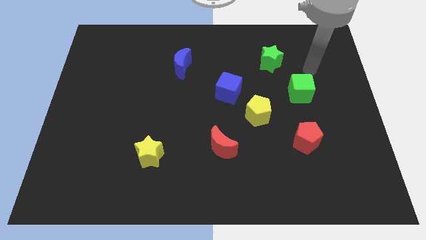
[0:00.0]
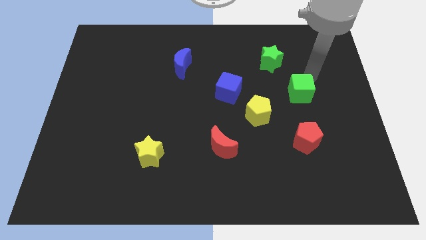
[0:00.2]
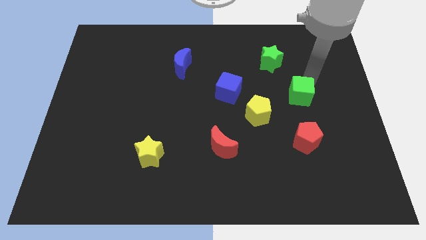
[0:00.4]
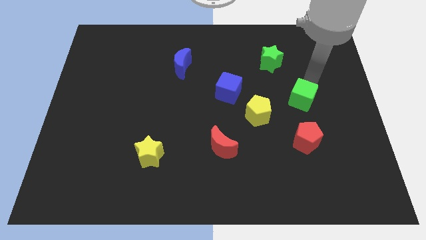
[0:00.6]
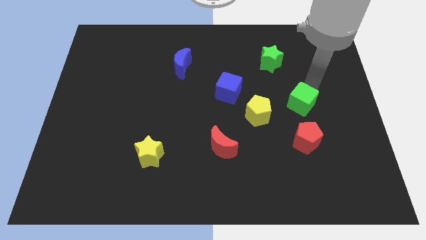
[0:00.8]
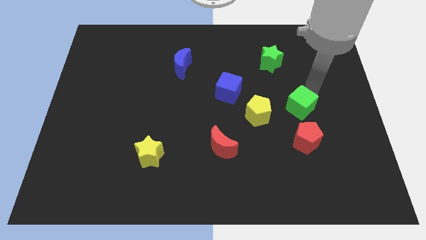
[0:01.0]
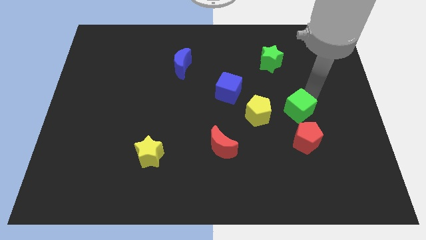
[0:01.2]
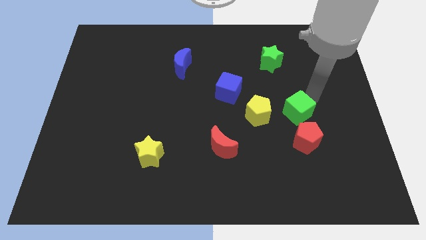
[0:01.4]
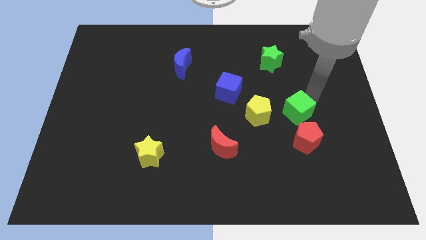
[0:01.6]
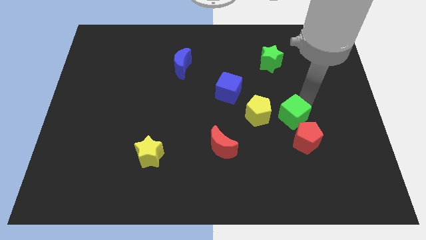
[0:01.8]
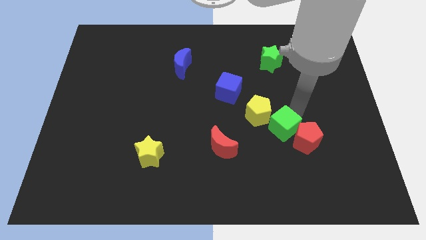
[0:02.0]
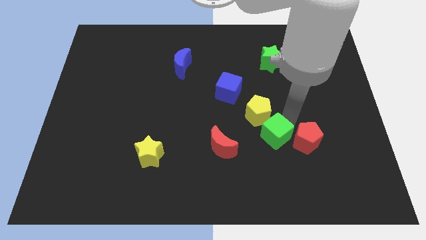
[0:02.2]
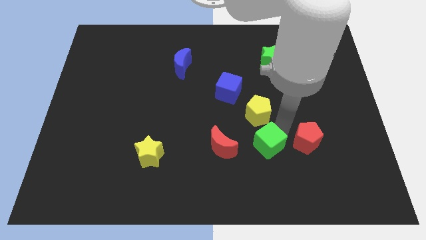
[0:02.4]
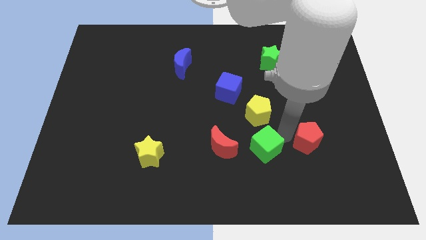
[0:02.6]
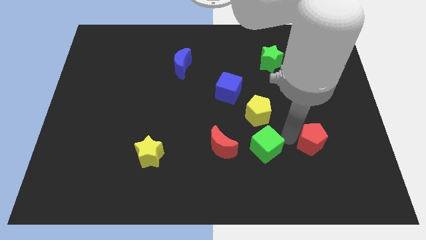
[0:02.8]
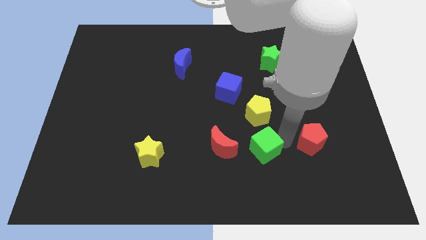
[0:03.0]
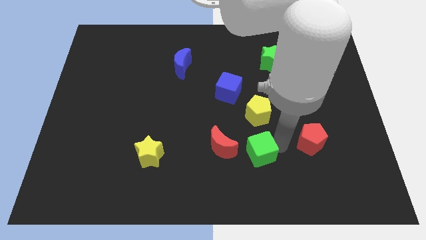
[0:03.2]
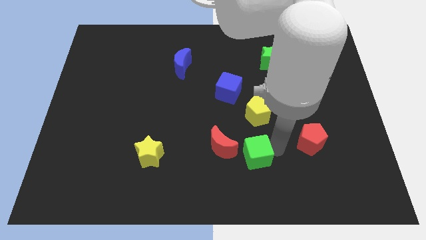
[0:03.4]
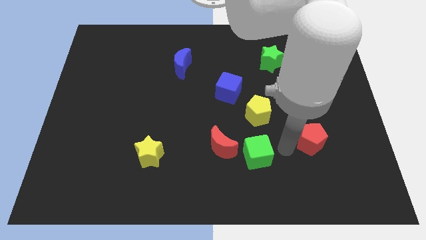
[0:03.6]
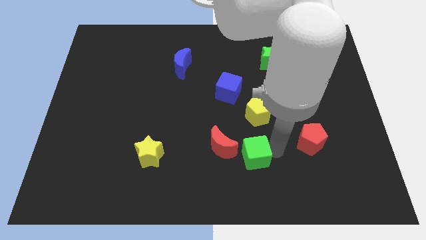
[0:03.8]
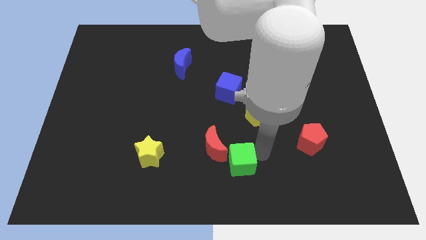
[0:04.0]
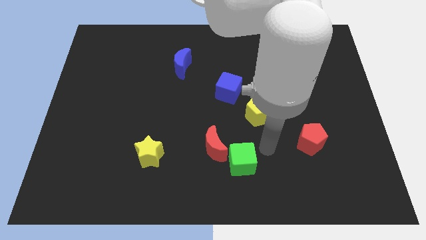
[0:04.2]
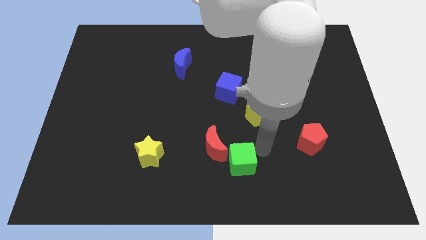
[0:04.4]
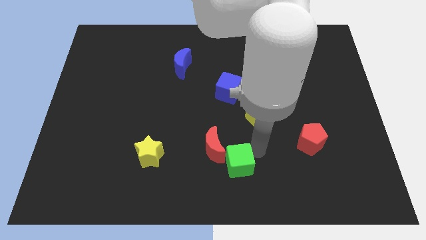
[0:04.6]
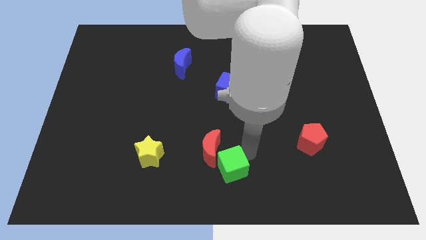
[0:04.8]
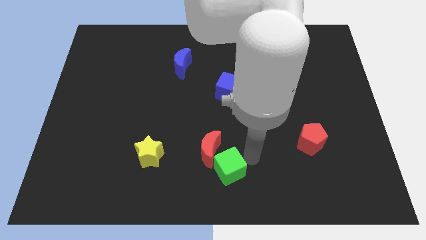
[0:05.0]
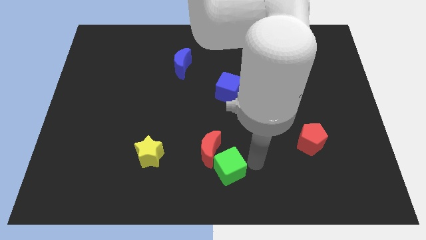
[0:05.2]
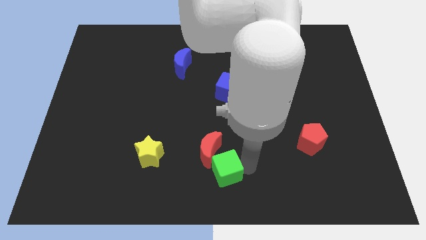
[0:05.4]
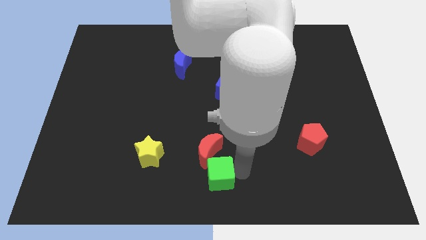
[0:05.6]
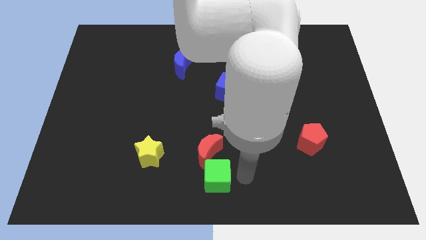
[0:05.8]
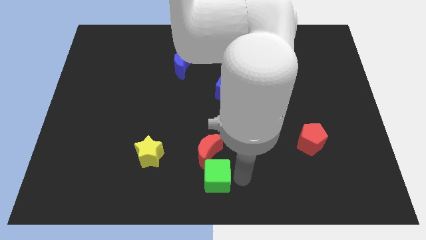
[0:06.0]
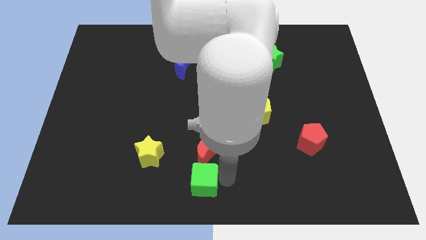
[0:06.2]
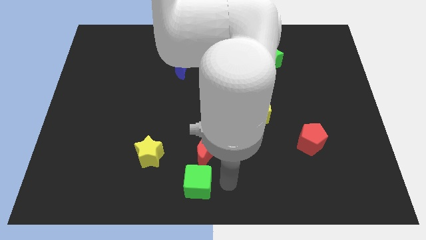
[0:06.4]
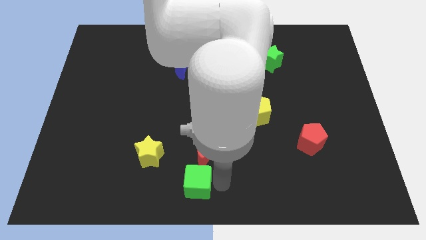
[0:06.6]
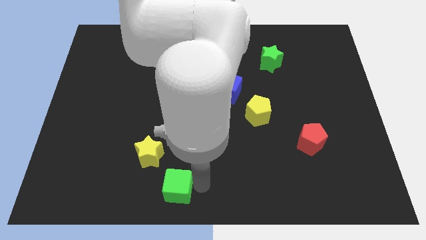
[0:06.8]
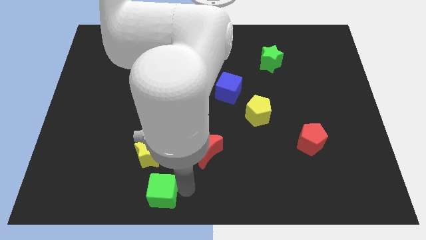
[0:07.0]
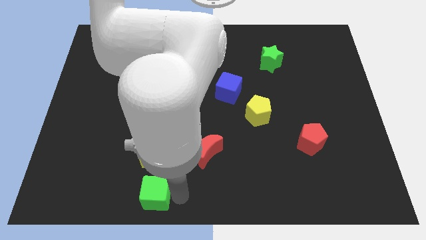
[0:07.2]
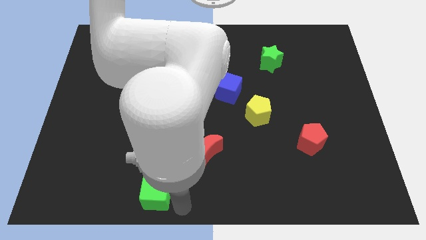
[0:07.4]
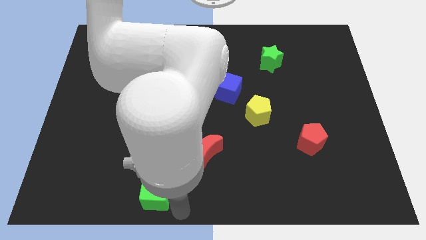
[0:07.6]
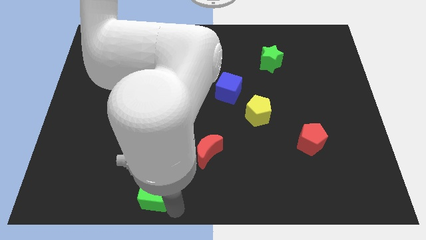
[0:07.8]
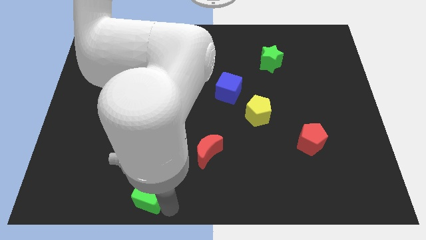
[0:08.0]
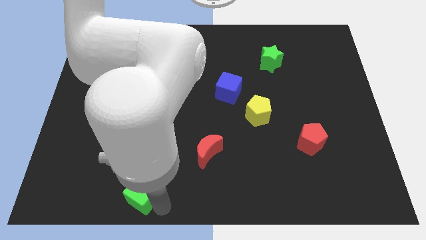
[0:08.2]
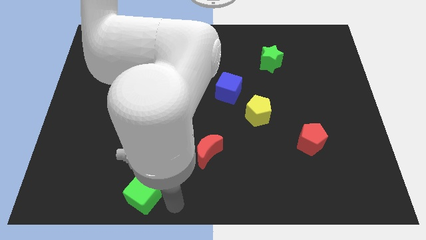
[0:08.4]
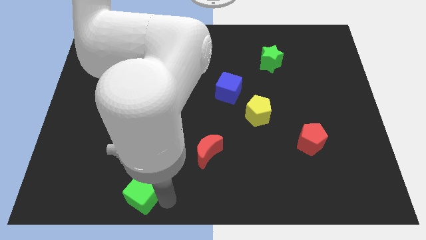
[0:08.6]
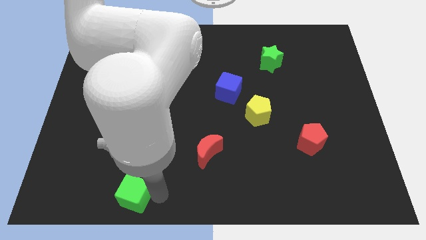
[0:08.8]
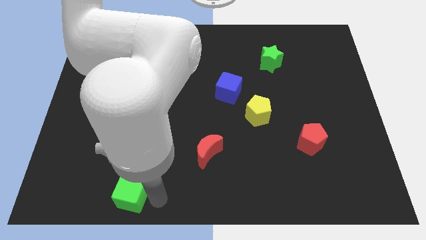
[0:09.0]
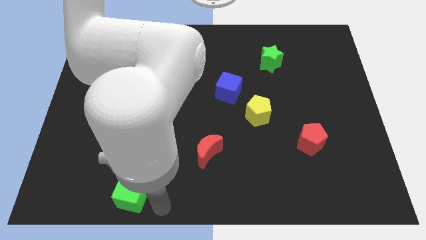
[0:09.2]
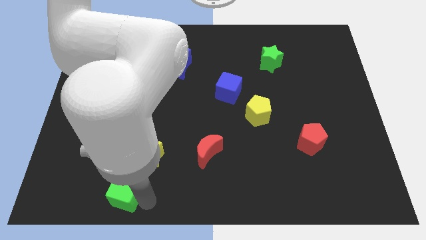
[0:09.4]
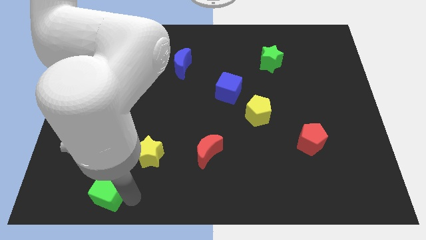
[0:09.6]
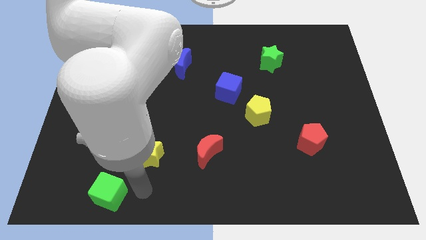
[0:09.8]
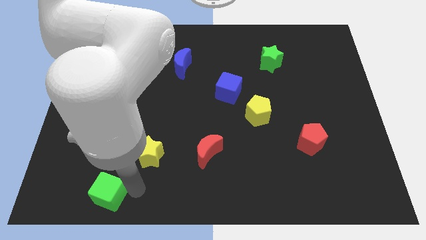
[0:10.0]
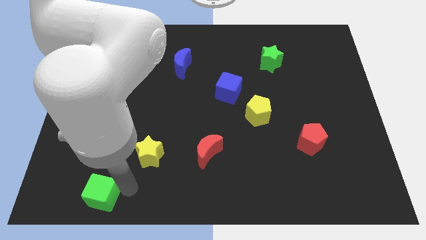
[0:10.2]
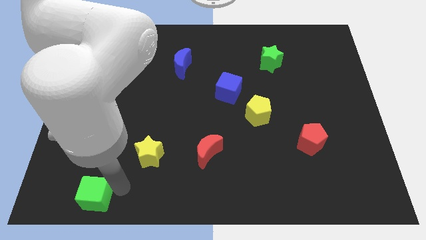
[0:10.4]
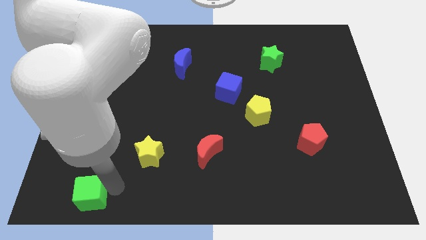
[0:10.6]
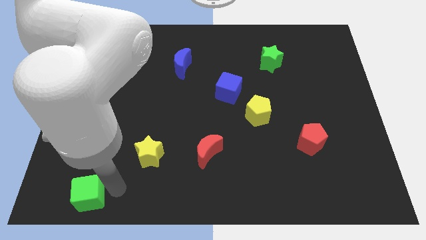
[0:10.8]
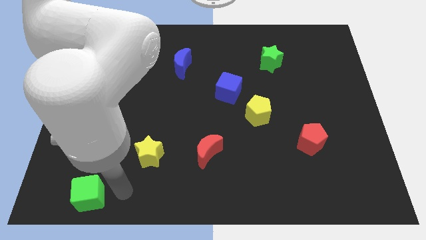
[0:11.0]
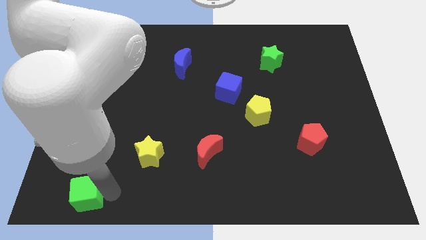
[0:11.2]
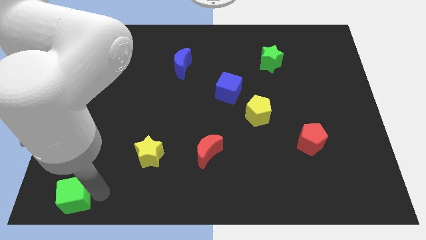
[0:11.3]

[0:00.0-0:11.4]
push the green cube to the bottom left

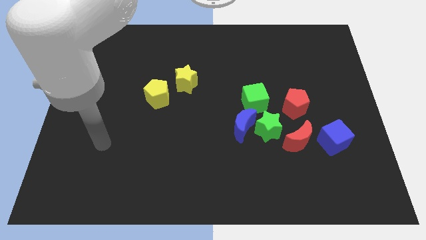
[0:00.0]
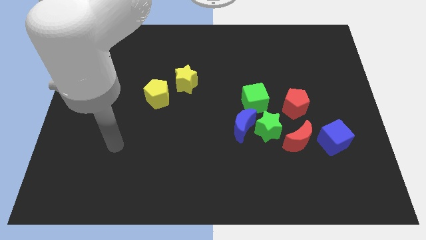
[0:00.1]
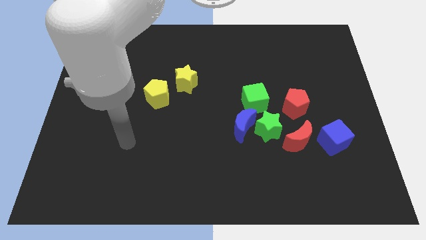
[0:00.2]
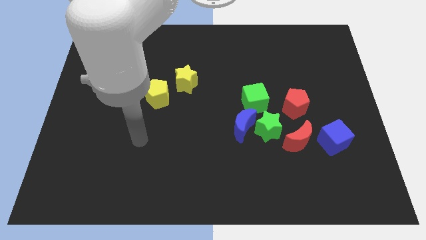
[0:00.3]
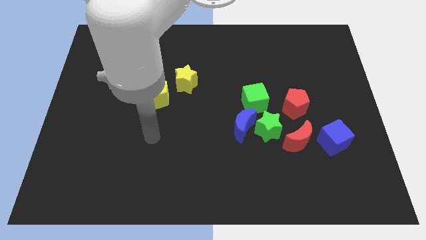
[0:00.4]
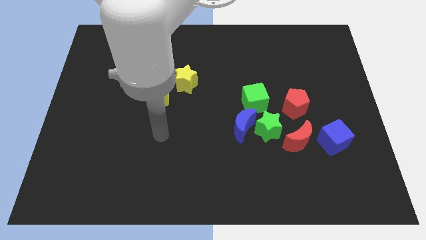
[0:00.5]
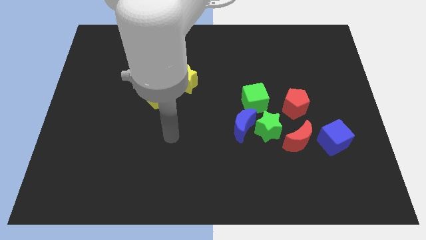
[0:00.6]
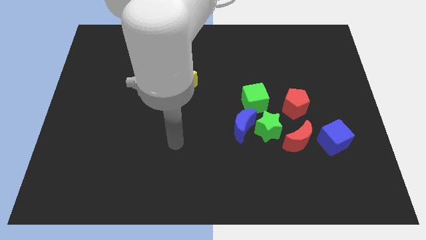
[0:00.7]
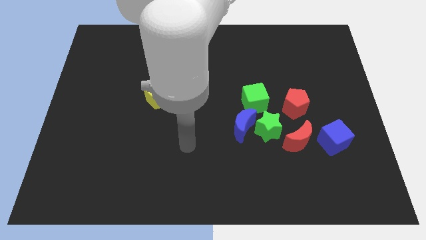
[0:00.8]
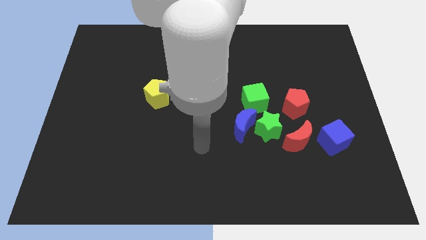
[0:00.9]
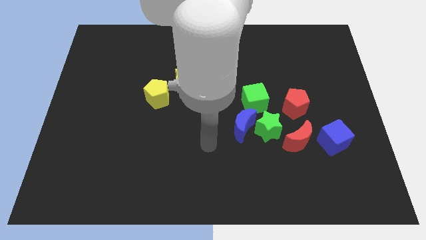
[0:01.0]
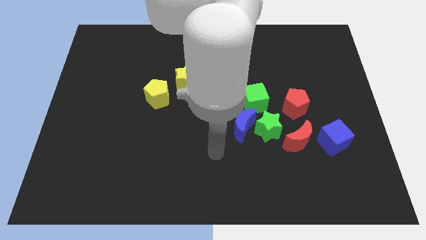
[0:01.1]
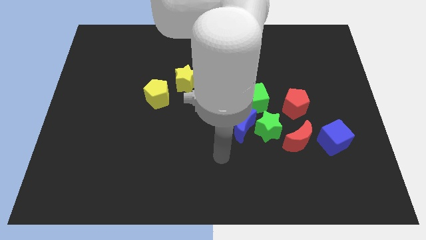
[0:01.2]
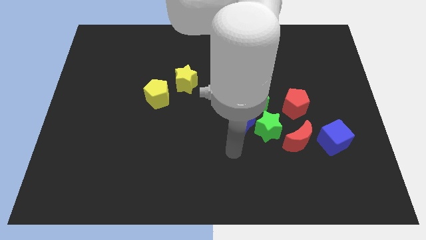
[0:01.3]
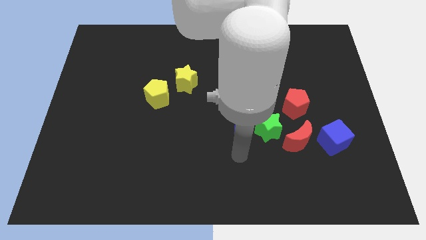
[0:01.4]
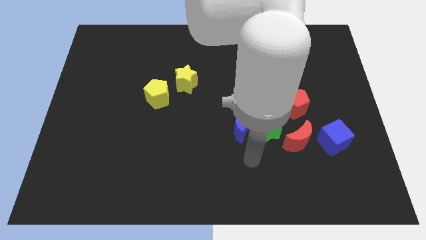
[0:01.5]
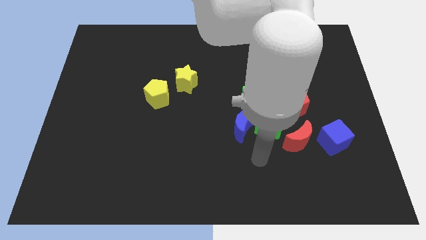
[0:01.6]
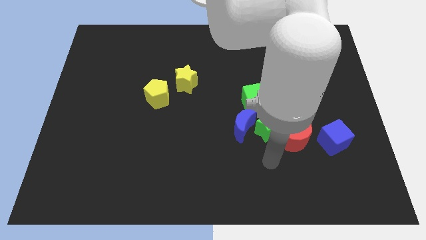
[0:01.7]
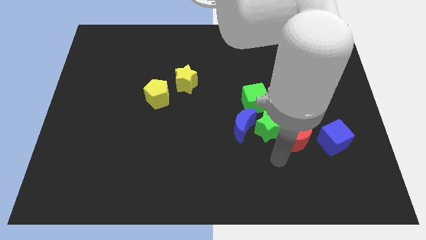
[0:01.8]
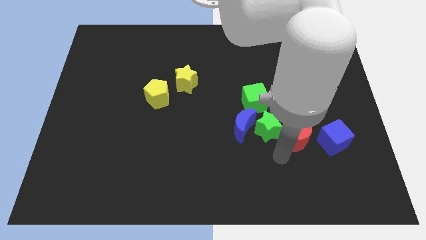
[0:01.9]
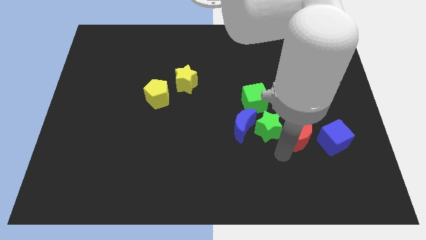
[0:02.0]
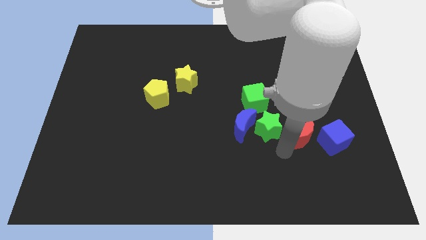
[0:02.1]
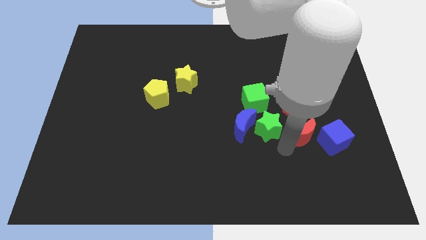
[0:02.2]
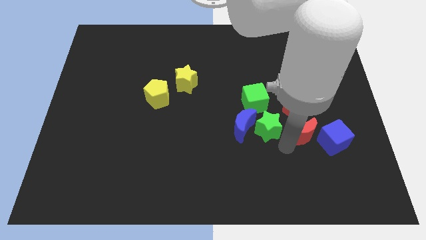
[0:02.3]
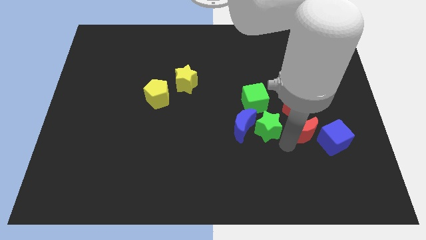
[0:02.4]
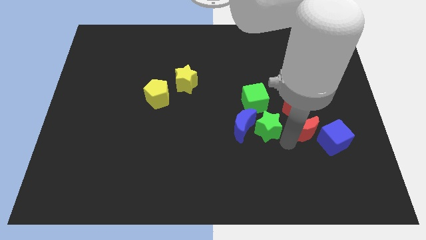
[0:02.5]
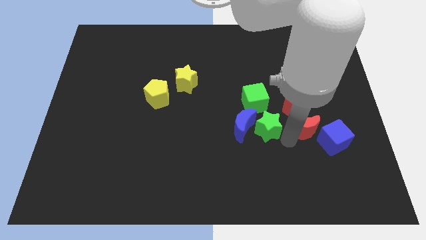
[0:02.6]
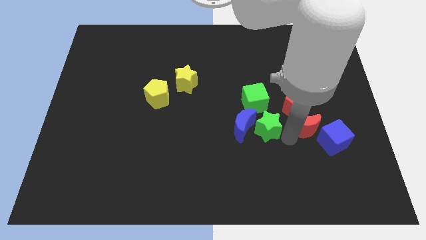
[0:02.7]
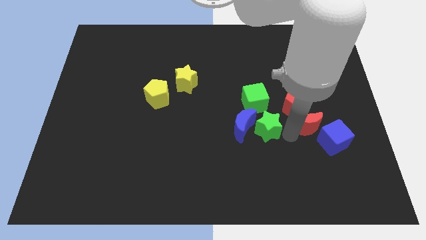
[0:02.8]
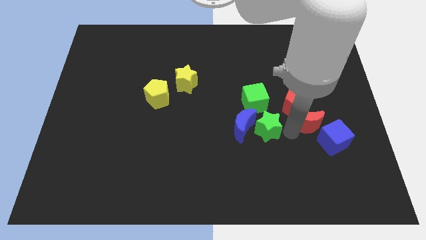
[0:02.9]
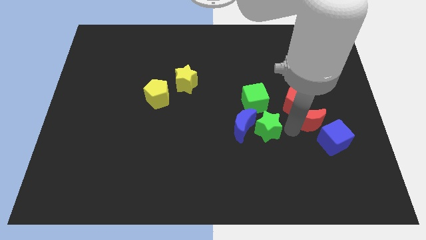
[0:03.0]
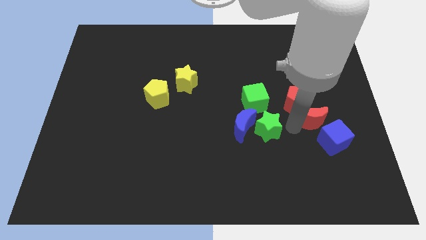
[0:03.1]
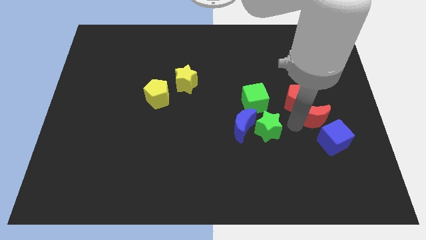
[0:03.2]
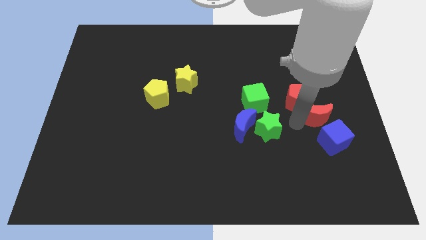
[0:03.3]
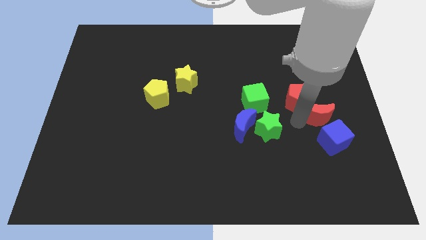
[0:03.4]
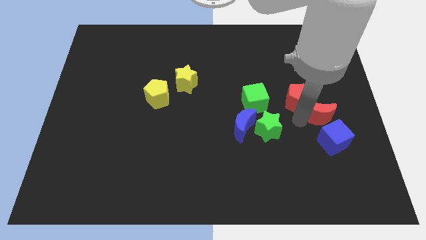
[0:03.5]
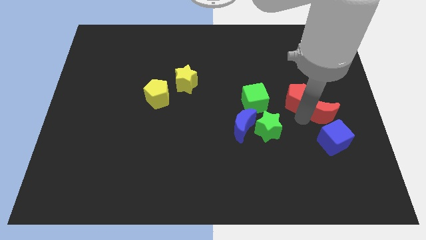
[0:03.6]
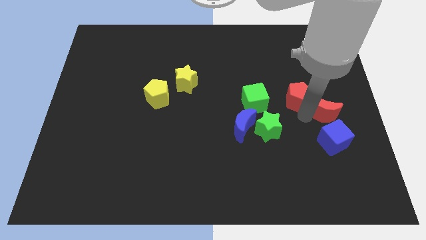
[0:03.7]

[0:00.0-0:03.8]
move the red moon to the center right
